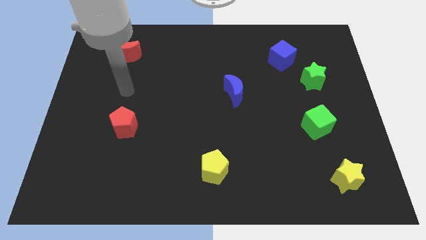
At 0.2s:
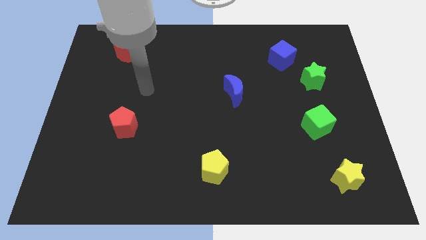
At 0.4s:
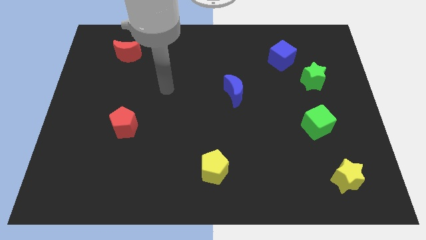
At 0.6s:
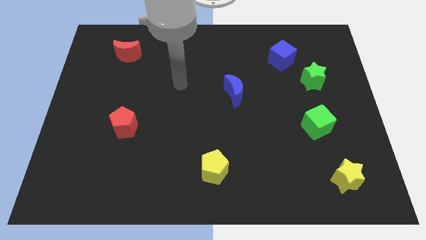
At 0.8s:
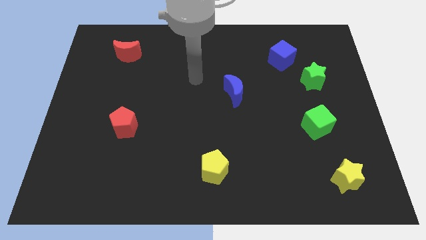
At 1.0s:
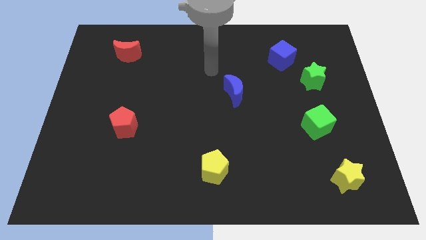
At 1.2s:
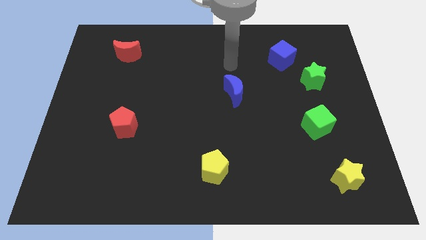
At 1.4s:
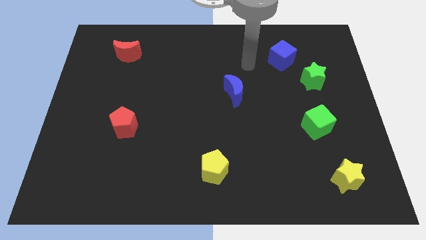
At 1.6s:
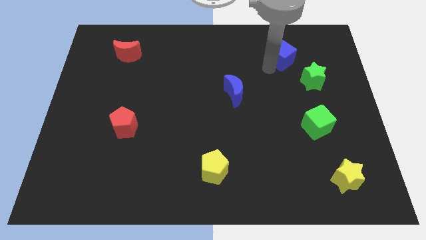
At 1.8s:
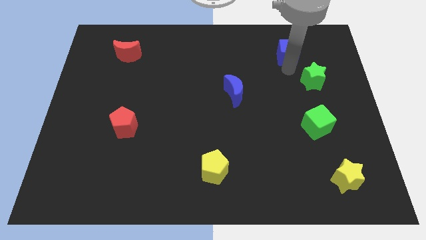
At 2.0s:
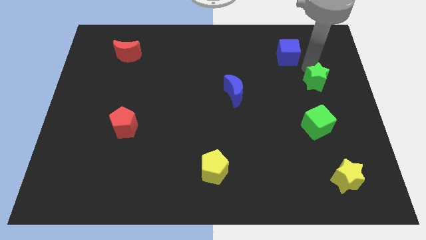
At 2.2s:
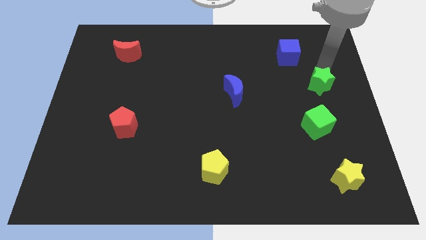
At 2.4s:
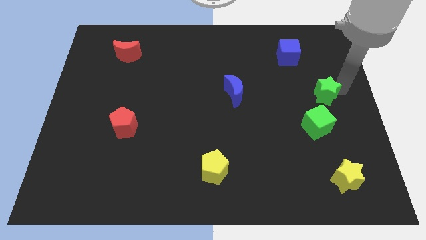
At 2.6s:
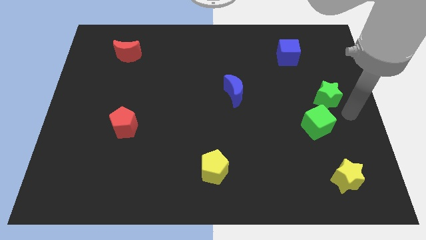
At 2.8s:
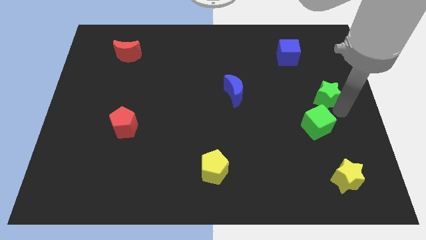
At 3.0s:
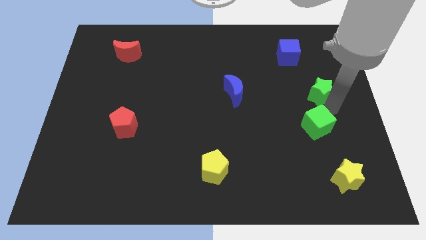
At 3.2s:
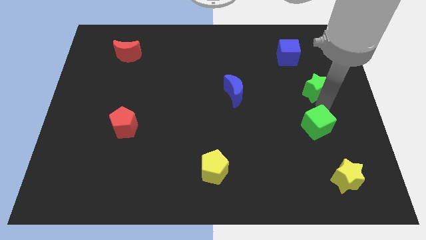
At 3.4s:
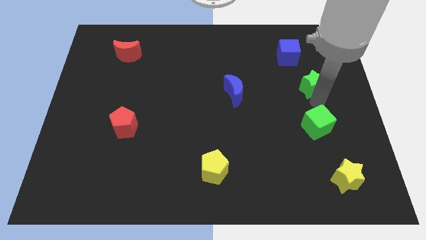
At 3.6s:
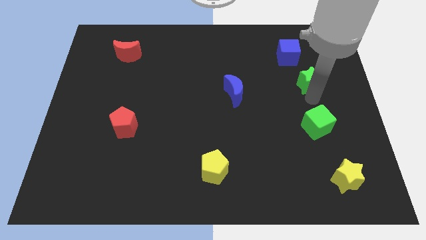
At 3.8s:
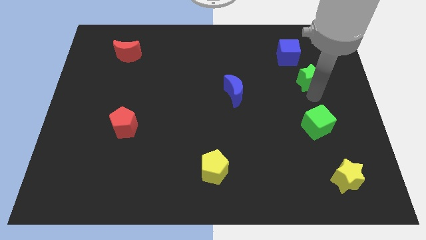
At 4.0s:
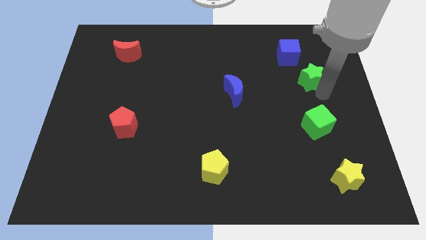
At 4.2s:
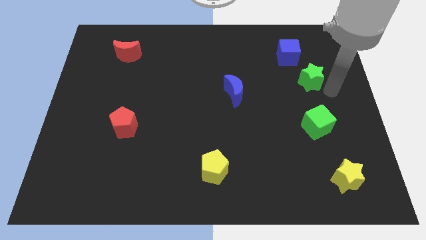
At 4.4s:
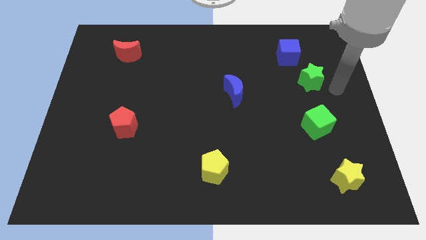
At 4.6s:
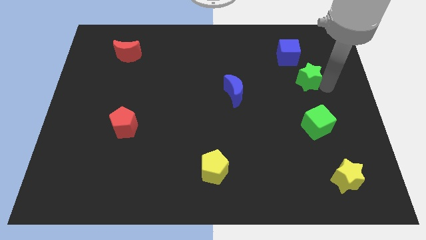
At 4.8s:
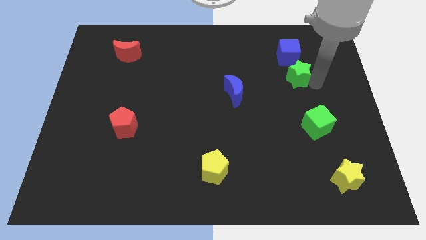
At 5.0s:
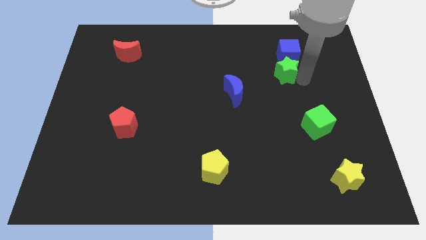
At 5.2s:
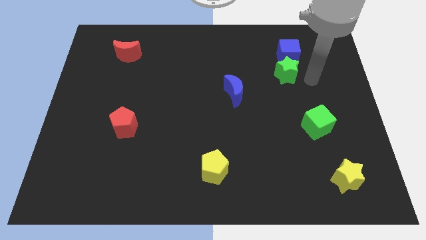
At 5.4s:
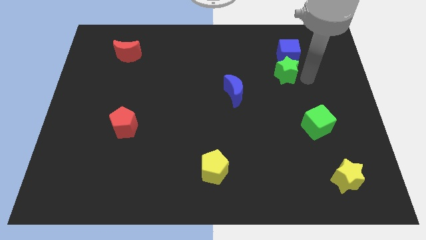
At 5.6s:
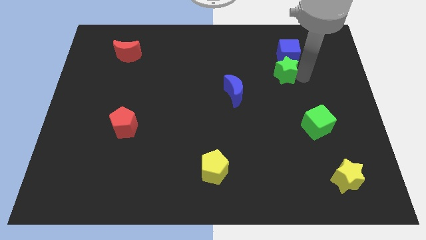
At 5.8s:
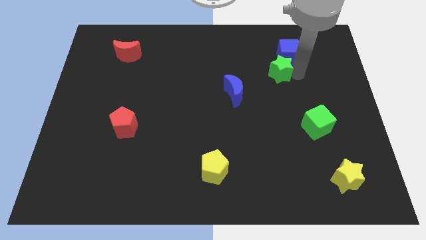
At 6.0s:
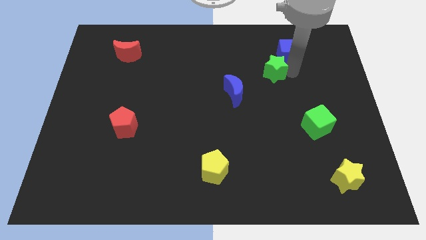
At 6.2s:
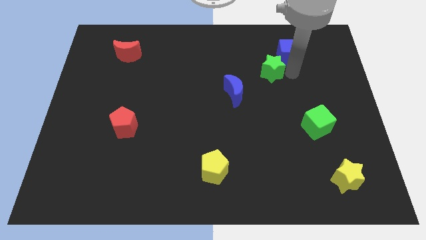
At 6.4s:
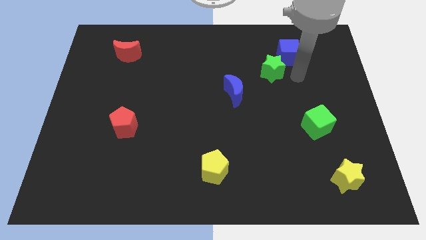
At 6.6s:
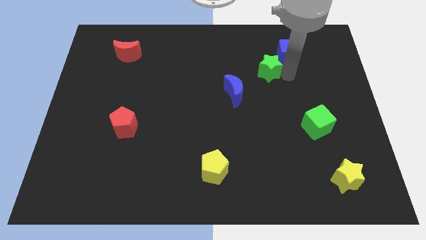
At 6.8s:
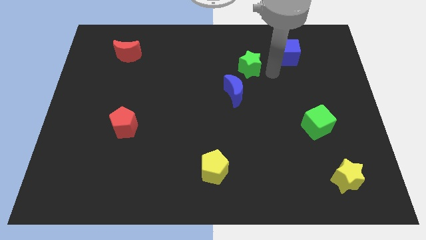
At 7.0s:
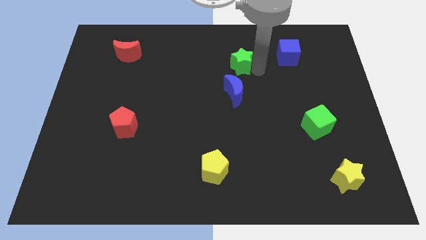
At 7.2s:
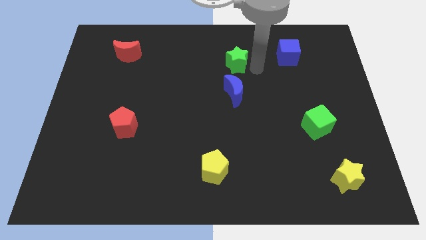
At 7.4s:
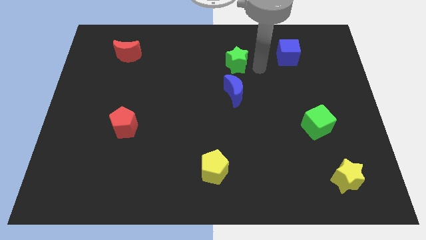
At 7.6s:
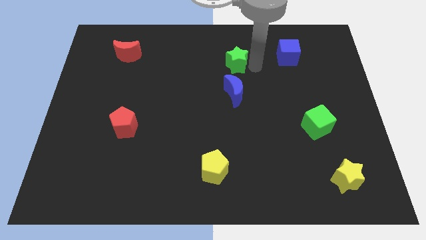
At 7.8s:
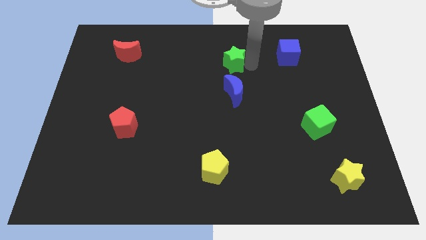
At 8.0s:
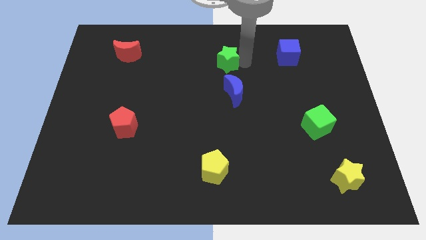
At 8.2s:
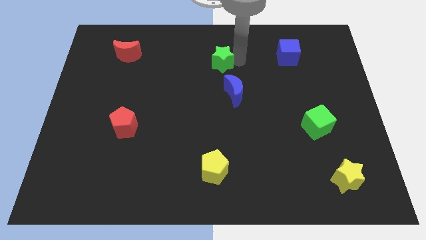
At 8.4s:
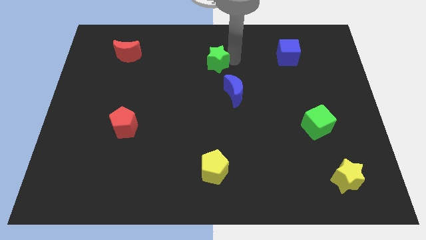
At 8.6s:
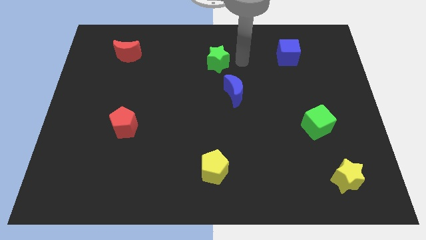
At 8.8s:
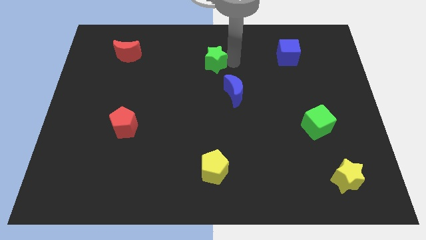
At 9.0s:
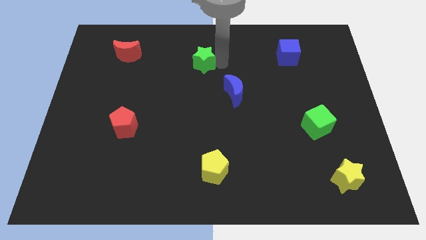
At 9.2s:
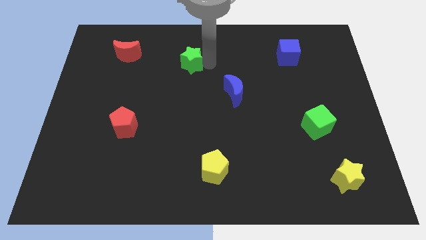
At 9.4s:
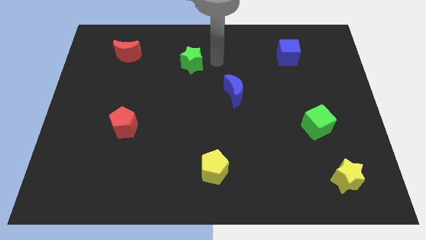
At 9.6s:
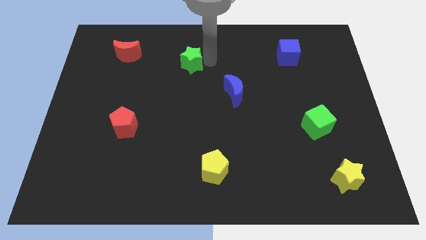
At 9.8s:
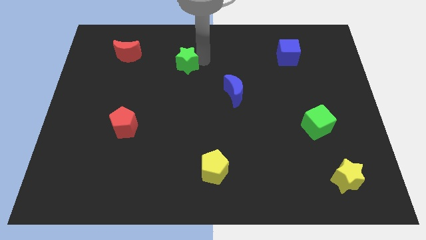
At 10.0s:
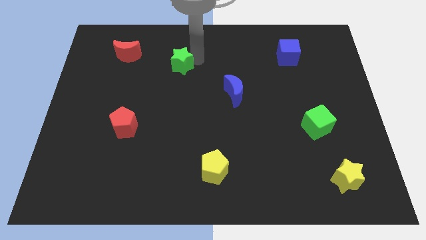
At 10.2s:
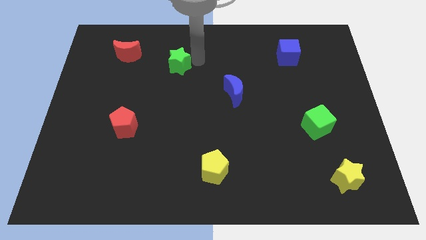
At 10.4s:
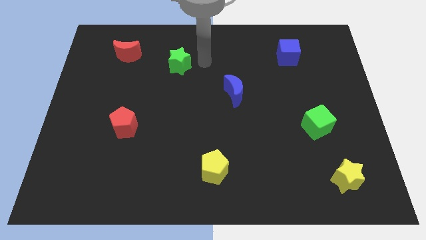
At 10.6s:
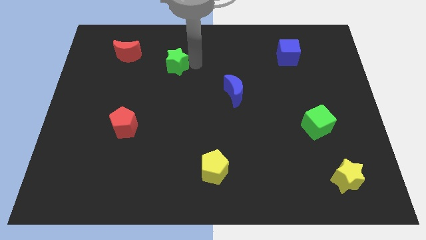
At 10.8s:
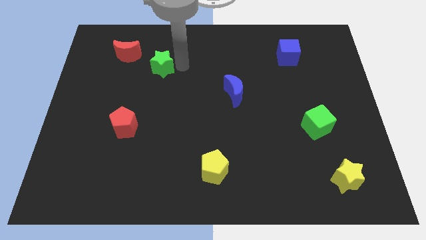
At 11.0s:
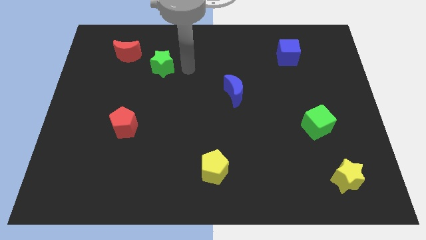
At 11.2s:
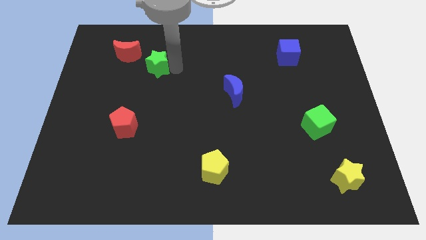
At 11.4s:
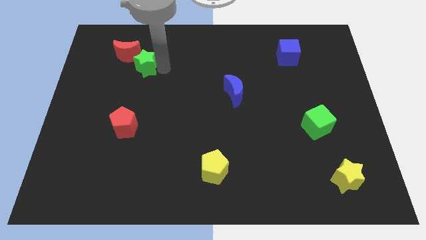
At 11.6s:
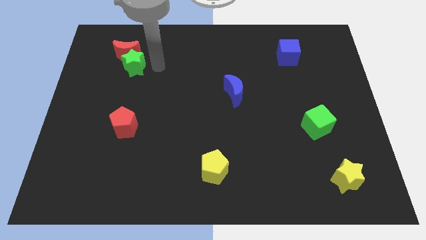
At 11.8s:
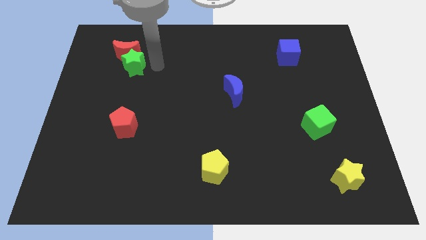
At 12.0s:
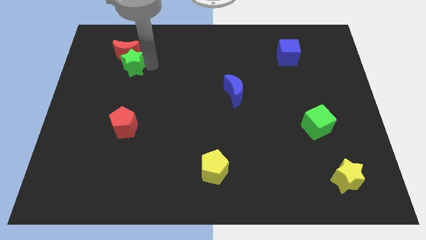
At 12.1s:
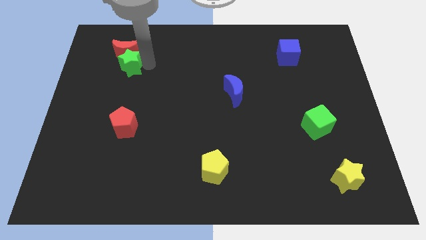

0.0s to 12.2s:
slide the green star diagonally down and to the left of the red moon
